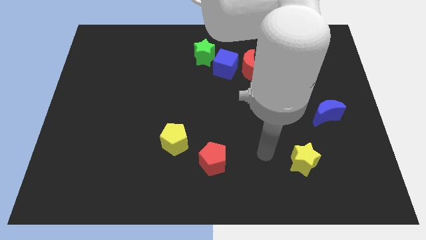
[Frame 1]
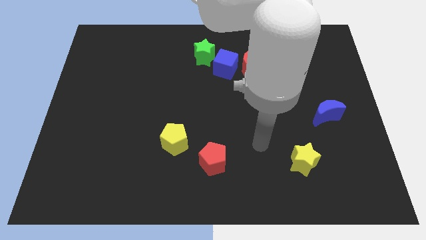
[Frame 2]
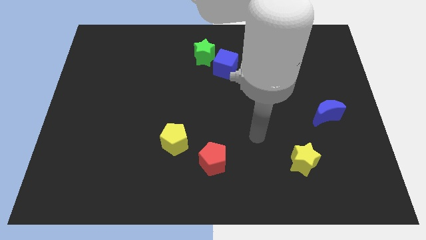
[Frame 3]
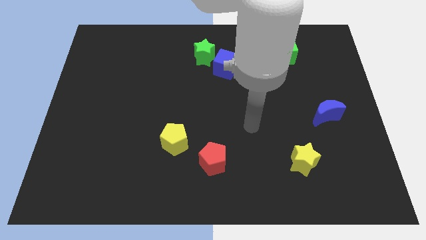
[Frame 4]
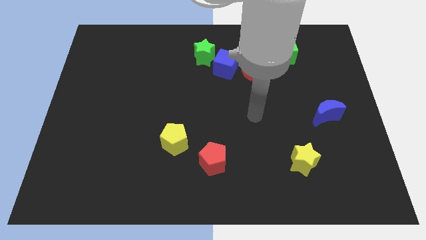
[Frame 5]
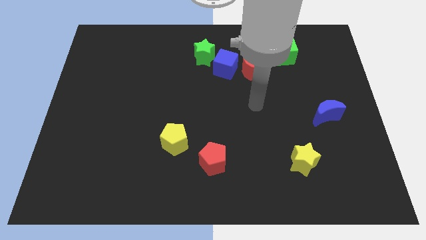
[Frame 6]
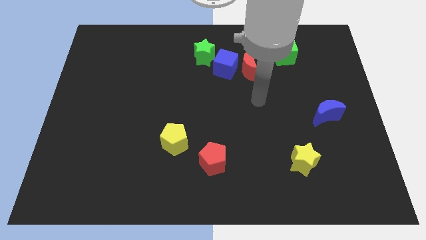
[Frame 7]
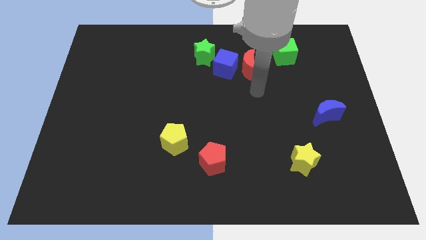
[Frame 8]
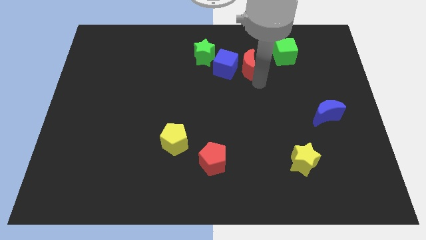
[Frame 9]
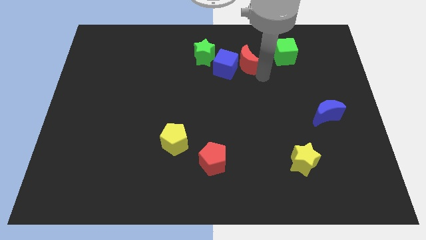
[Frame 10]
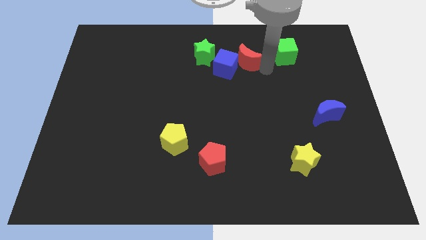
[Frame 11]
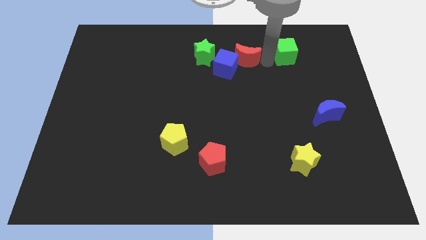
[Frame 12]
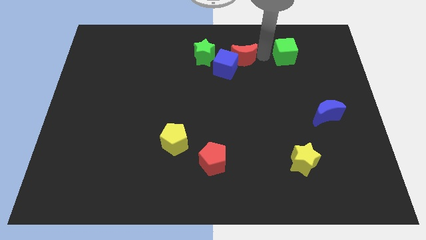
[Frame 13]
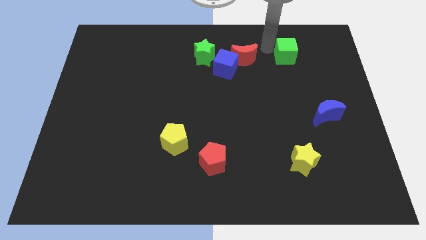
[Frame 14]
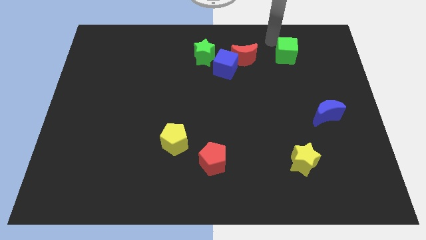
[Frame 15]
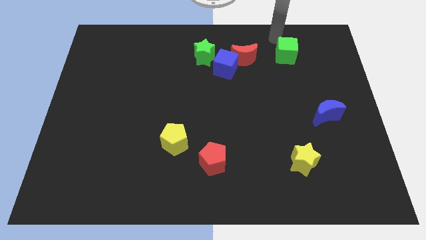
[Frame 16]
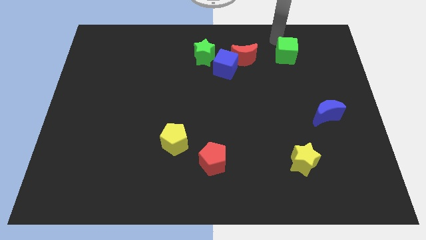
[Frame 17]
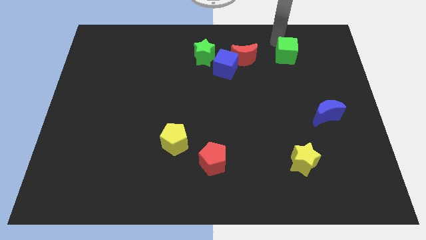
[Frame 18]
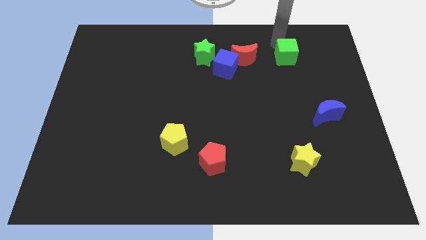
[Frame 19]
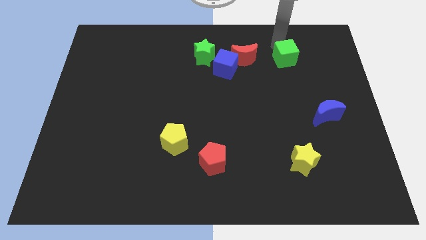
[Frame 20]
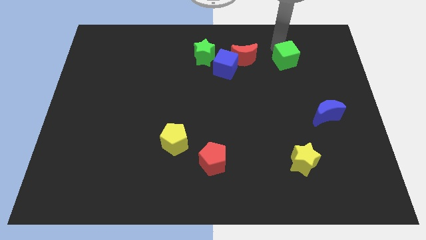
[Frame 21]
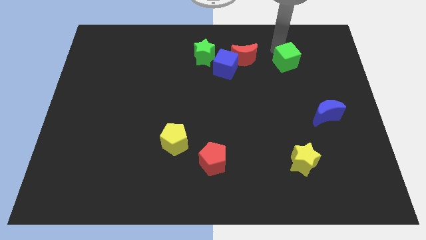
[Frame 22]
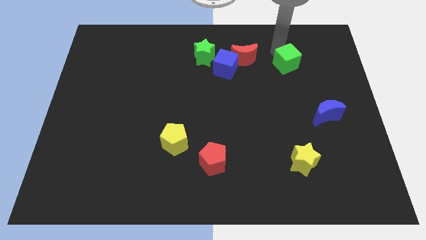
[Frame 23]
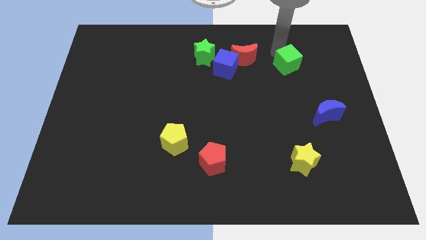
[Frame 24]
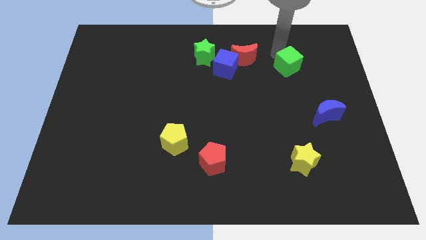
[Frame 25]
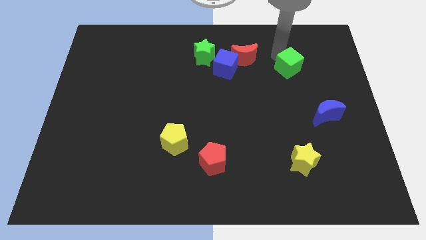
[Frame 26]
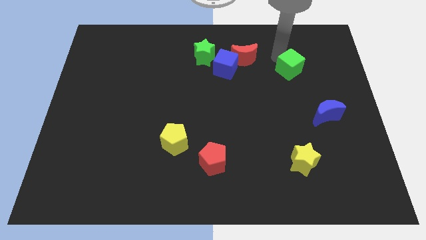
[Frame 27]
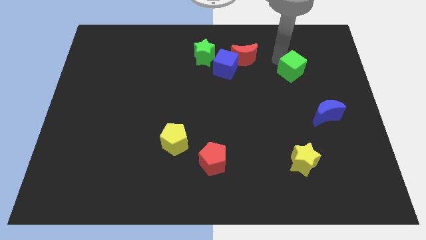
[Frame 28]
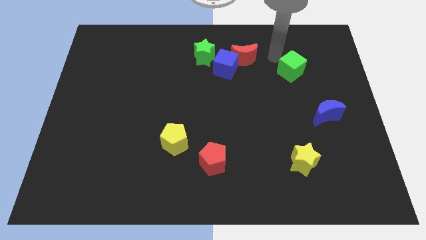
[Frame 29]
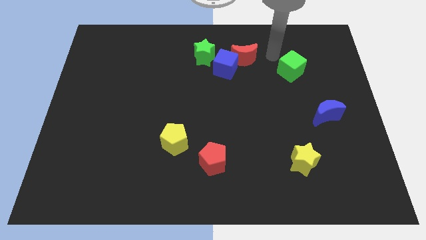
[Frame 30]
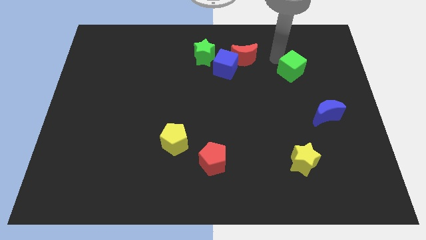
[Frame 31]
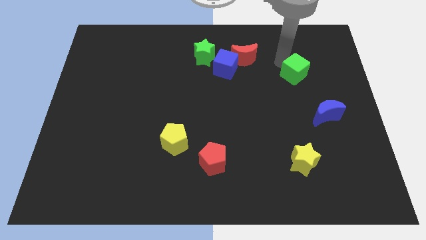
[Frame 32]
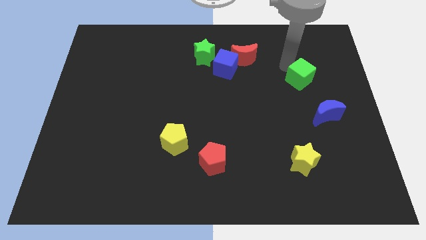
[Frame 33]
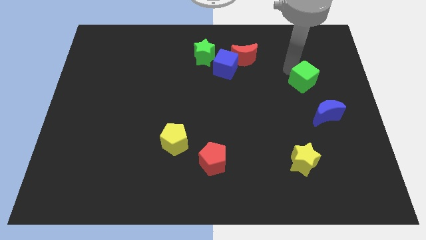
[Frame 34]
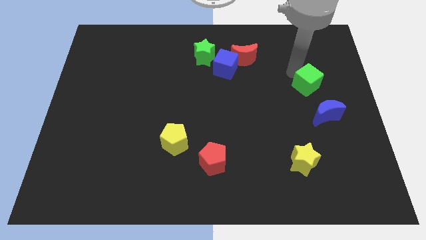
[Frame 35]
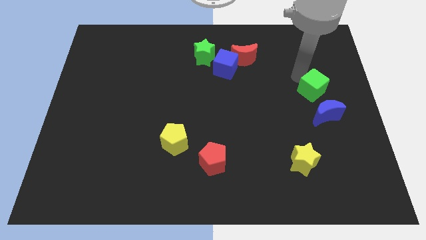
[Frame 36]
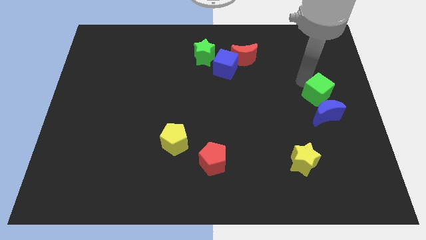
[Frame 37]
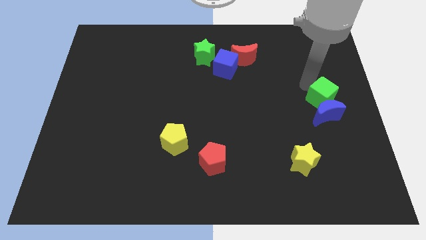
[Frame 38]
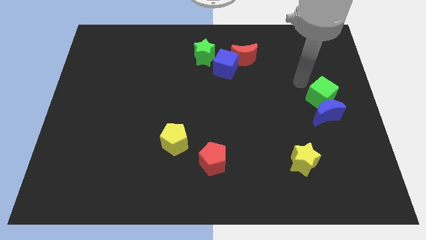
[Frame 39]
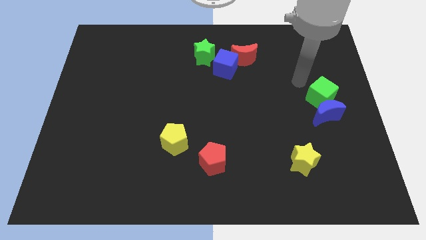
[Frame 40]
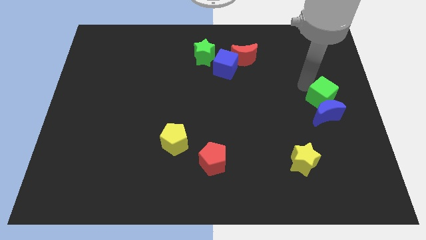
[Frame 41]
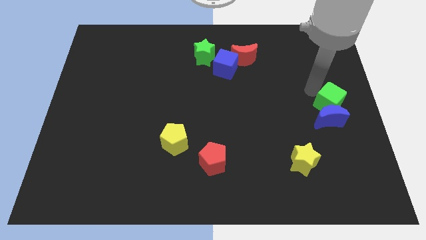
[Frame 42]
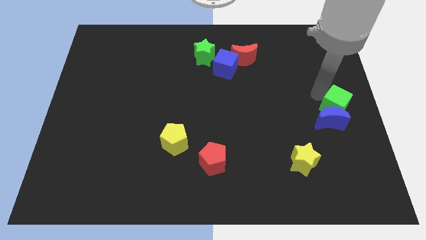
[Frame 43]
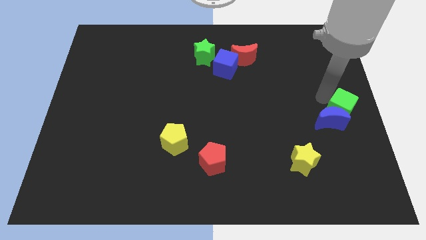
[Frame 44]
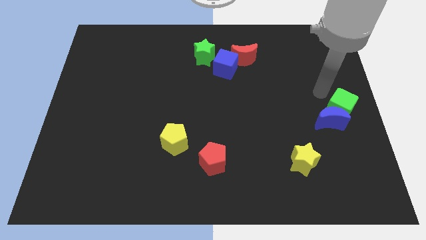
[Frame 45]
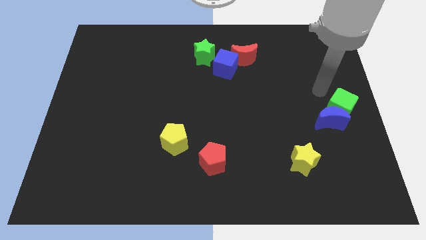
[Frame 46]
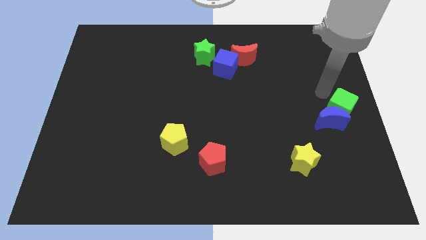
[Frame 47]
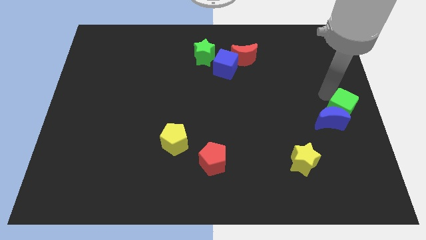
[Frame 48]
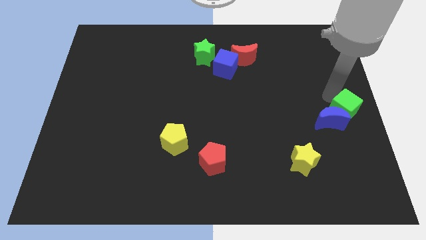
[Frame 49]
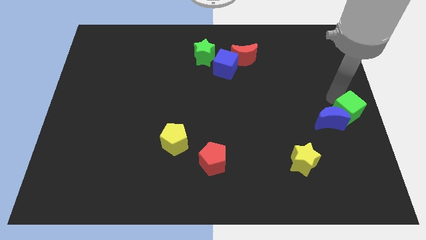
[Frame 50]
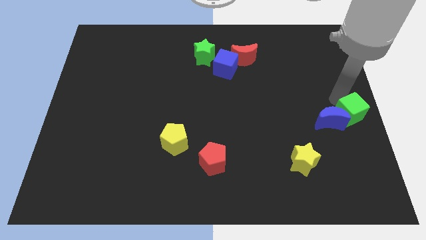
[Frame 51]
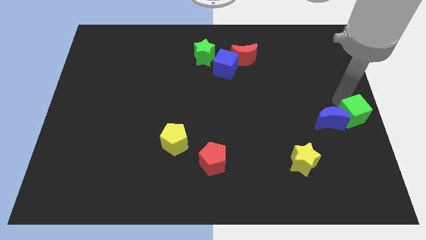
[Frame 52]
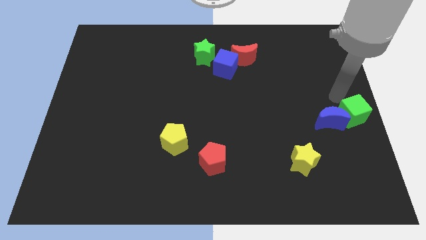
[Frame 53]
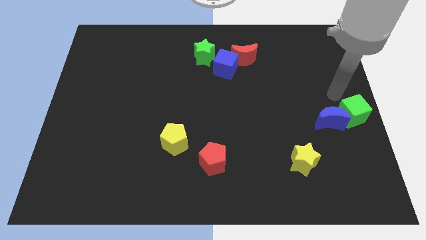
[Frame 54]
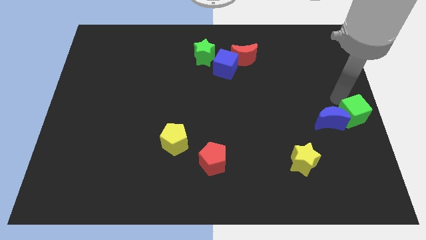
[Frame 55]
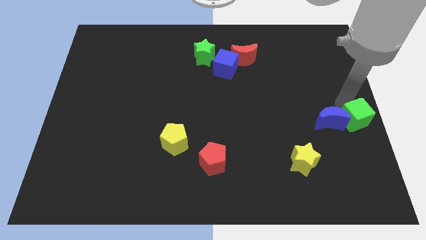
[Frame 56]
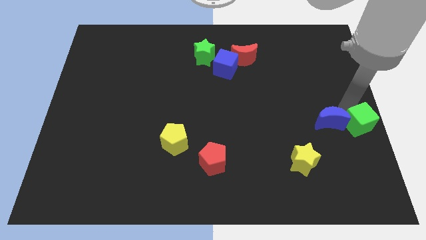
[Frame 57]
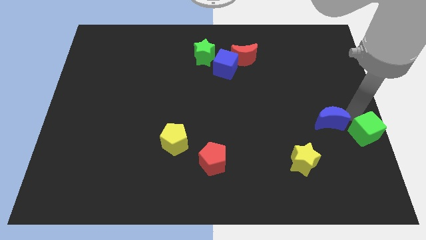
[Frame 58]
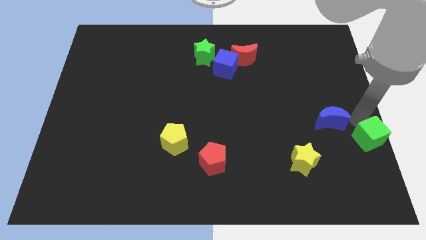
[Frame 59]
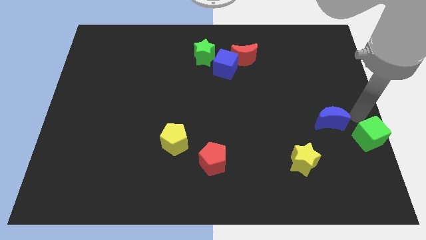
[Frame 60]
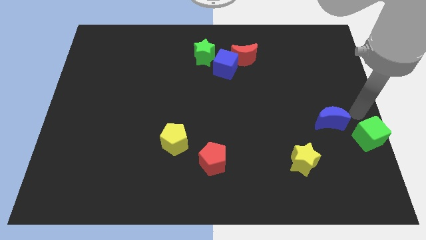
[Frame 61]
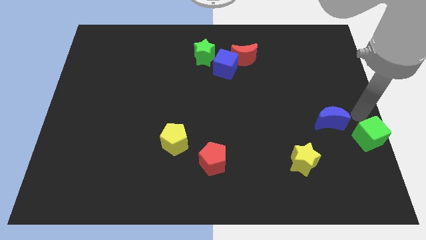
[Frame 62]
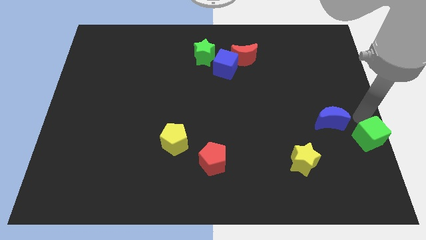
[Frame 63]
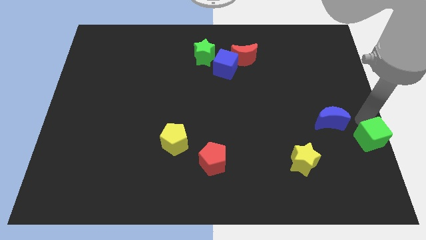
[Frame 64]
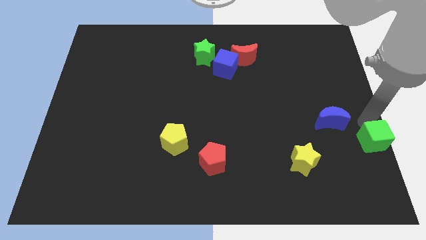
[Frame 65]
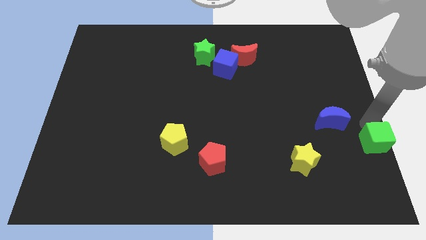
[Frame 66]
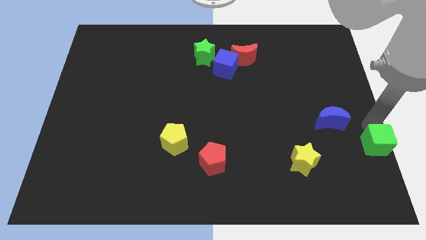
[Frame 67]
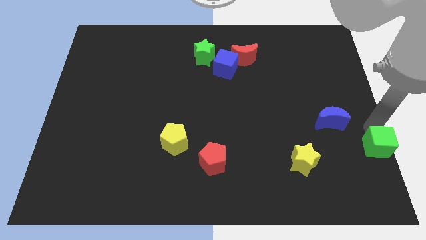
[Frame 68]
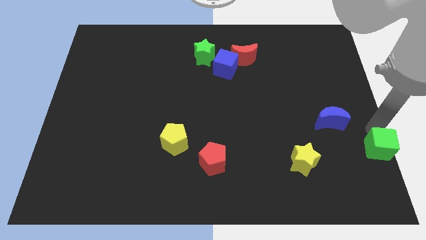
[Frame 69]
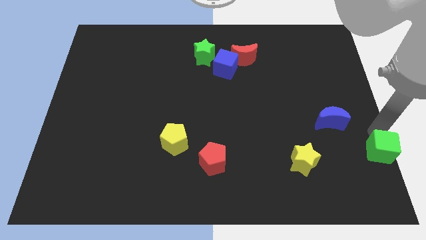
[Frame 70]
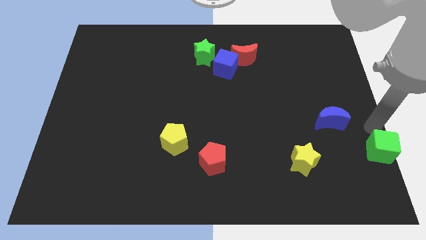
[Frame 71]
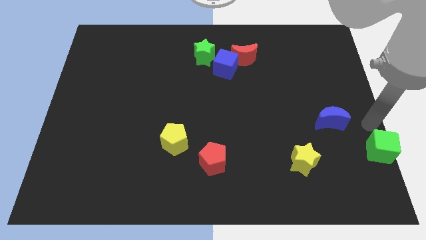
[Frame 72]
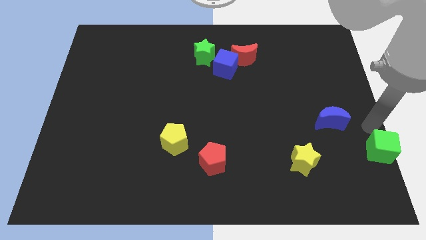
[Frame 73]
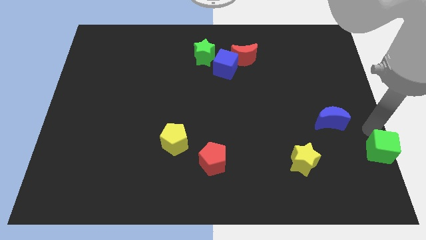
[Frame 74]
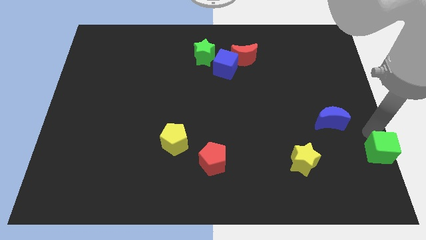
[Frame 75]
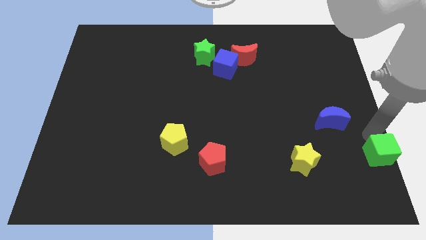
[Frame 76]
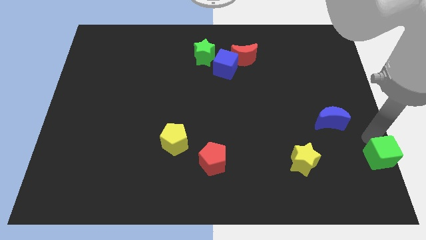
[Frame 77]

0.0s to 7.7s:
put the green cube to the bottom right corner
